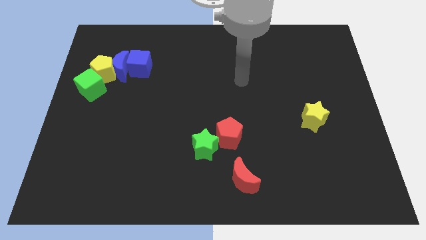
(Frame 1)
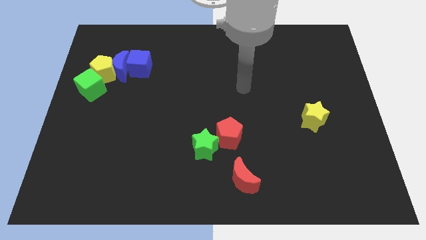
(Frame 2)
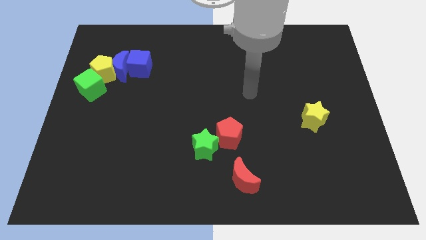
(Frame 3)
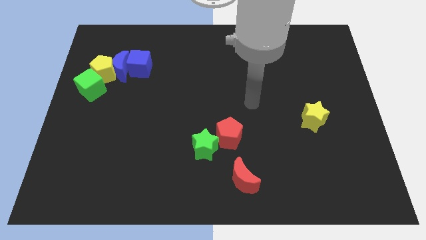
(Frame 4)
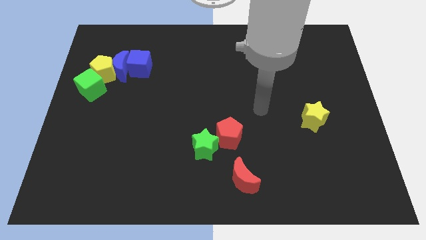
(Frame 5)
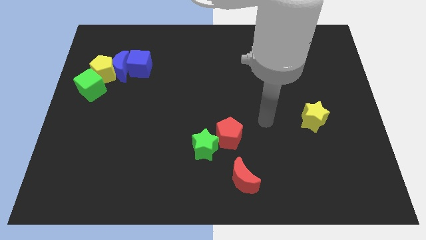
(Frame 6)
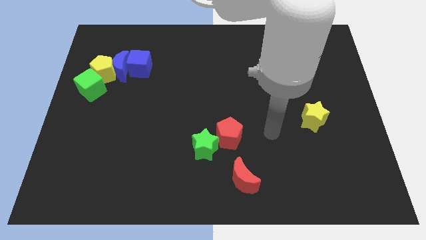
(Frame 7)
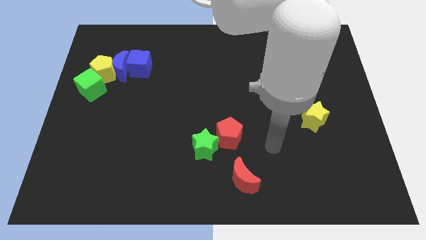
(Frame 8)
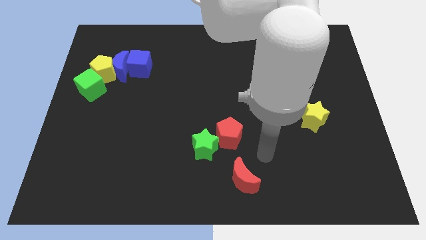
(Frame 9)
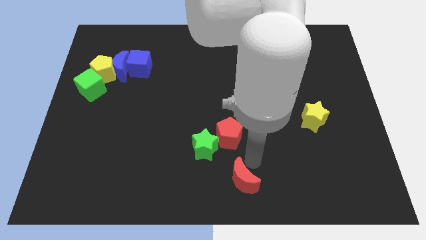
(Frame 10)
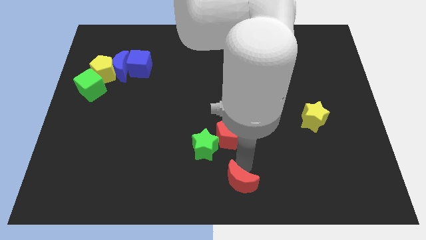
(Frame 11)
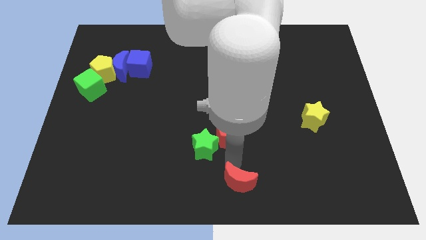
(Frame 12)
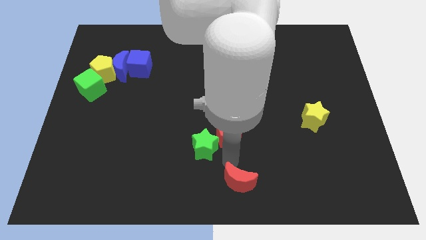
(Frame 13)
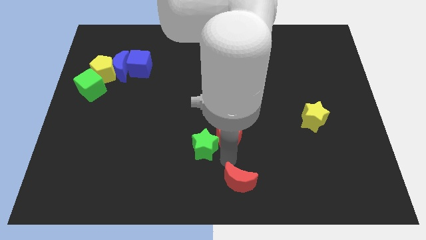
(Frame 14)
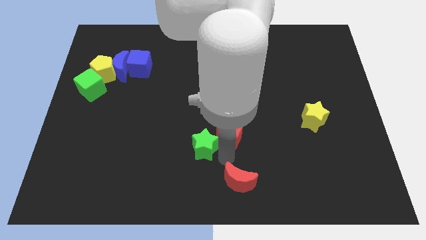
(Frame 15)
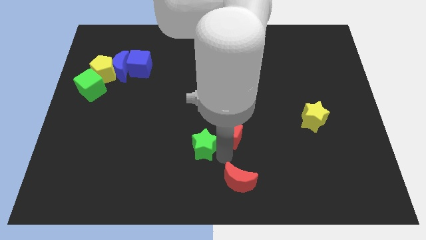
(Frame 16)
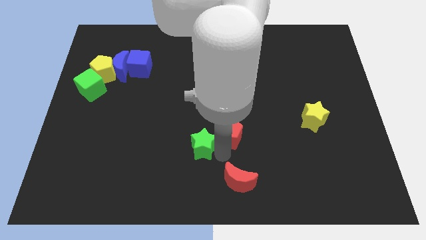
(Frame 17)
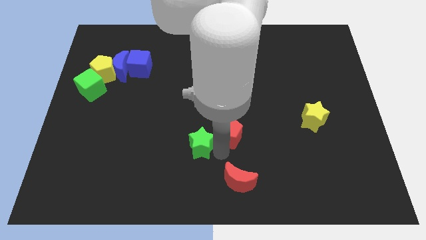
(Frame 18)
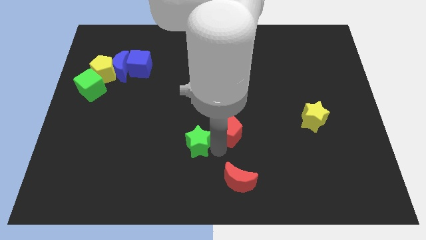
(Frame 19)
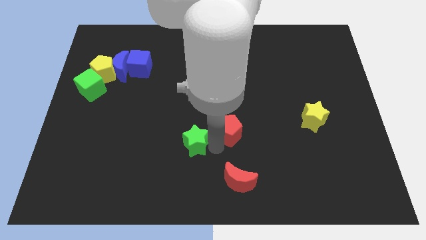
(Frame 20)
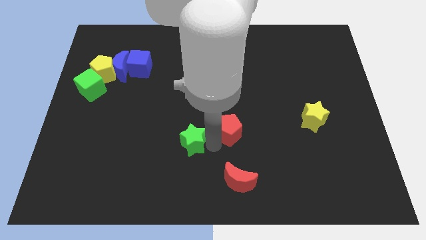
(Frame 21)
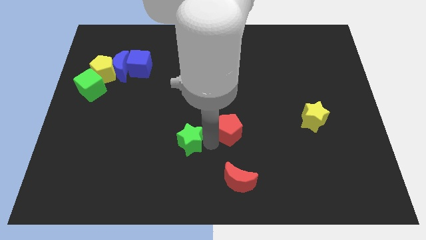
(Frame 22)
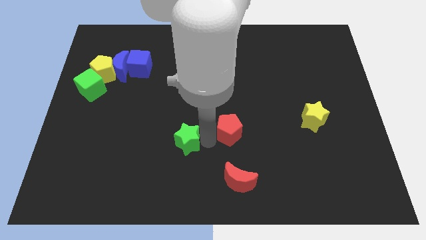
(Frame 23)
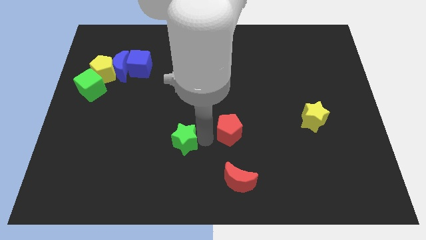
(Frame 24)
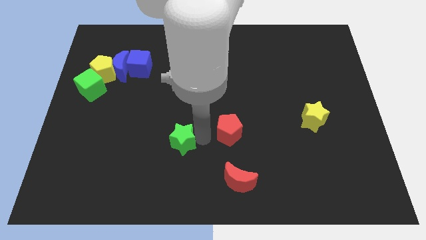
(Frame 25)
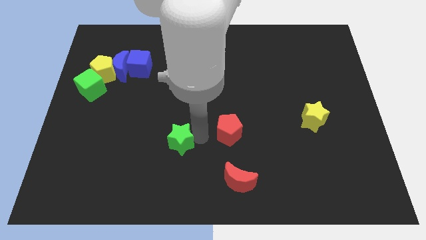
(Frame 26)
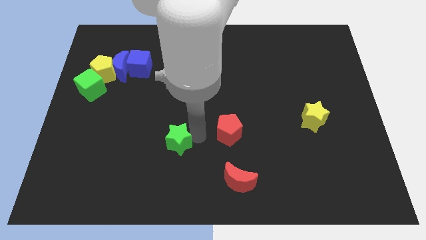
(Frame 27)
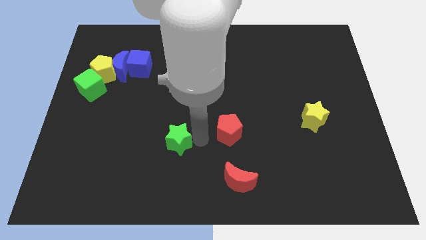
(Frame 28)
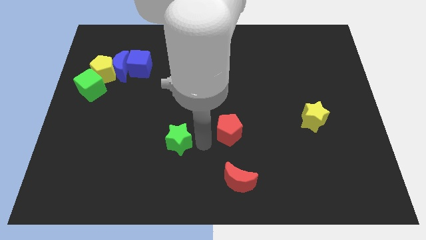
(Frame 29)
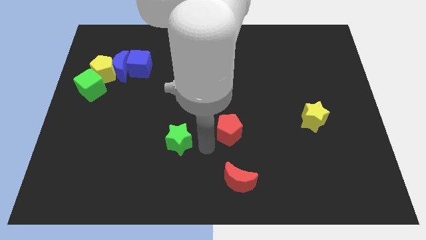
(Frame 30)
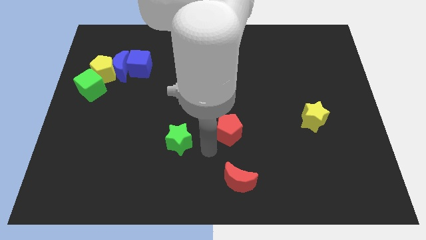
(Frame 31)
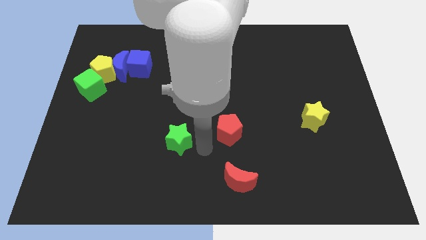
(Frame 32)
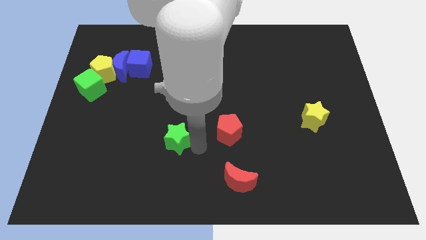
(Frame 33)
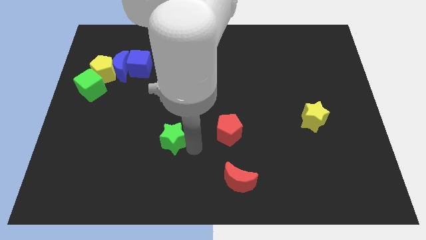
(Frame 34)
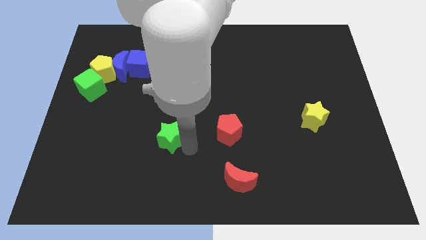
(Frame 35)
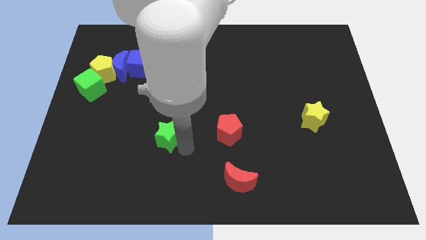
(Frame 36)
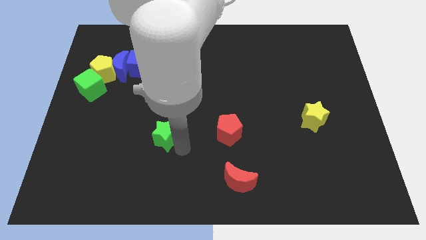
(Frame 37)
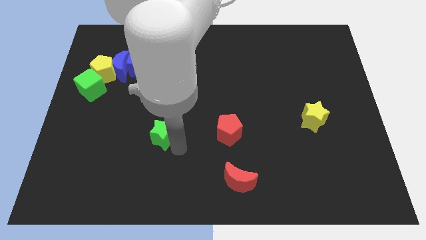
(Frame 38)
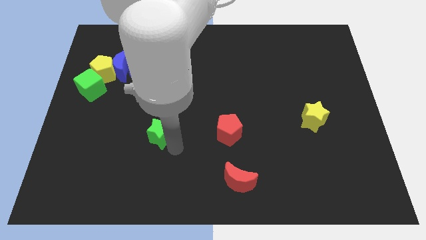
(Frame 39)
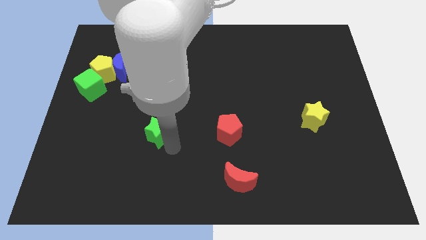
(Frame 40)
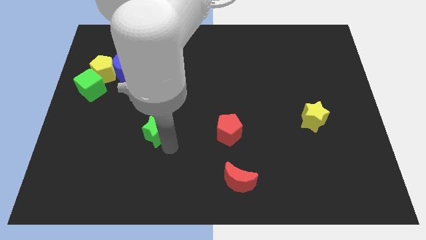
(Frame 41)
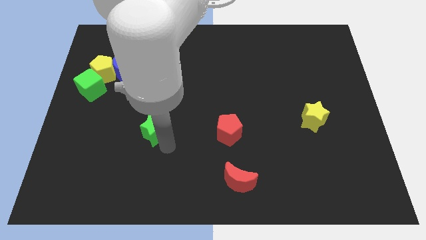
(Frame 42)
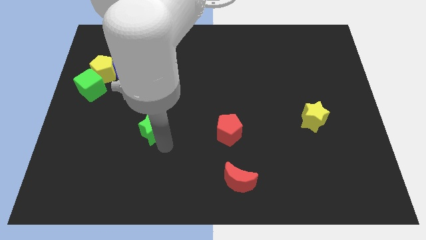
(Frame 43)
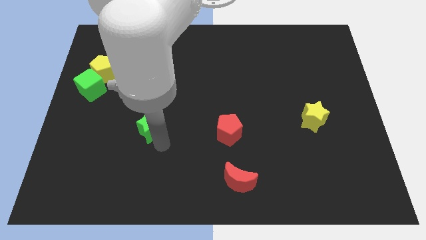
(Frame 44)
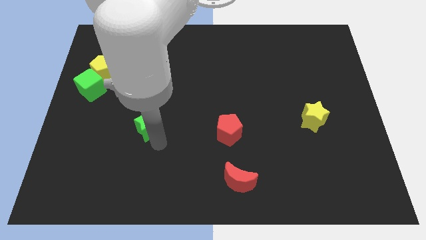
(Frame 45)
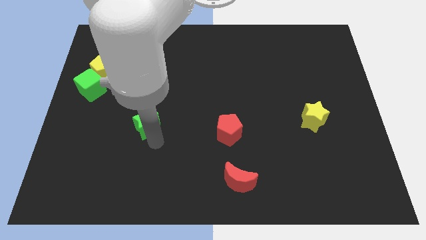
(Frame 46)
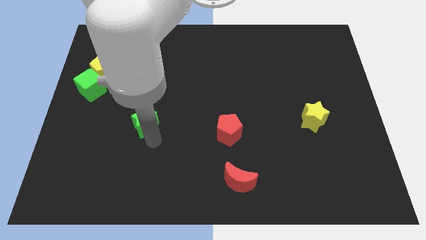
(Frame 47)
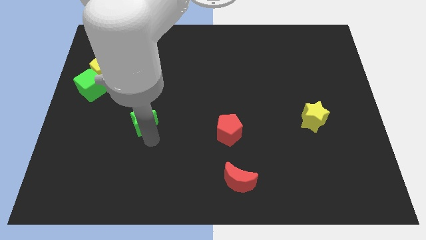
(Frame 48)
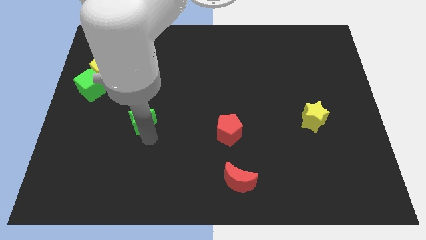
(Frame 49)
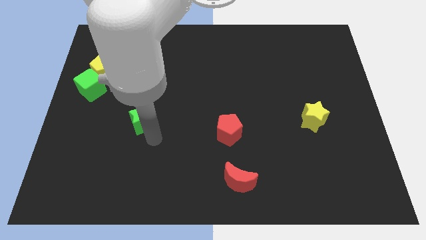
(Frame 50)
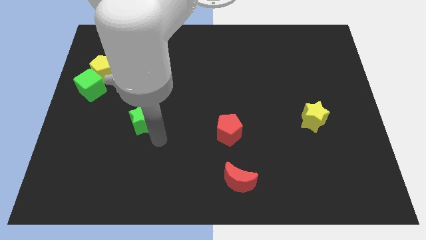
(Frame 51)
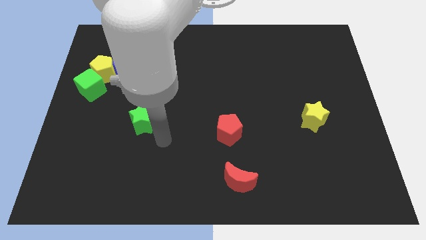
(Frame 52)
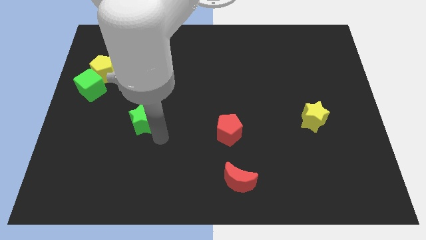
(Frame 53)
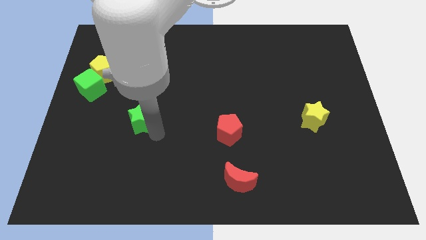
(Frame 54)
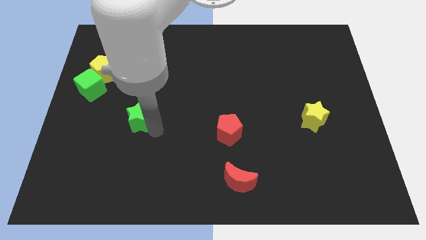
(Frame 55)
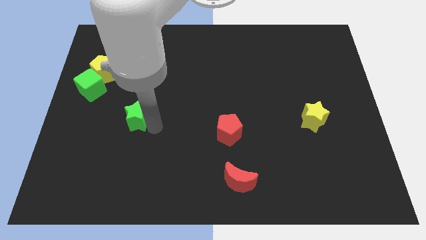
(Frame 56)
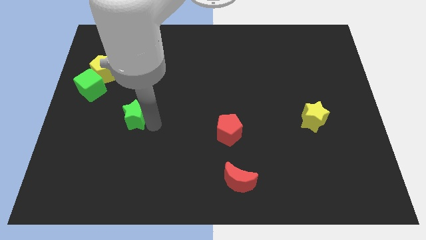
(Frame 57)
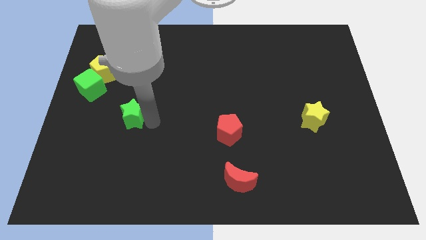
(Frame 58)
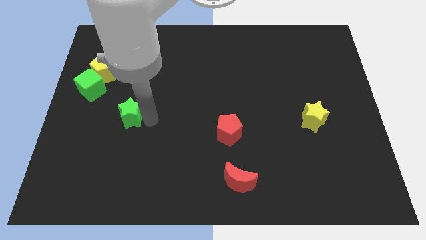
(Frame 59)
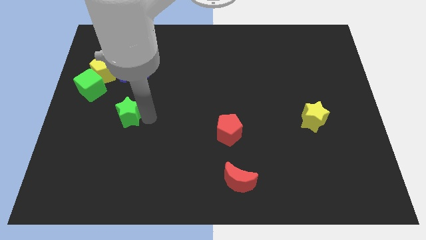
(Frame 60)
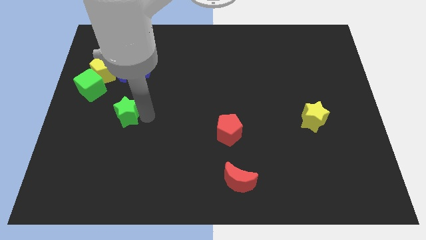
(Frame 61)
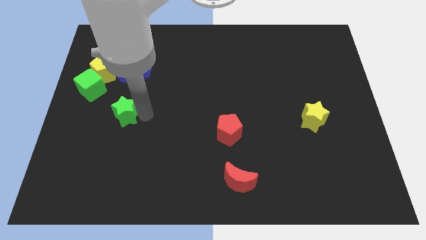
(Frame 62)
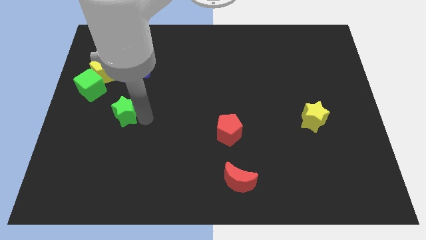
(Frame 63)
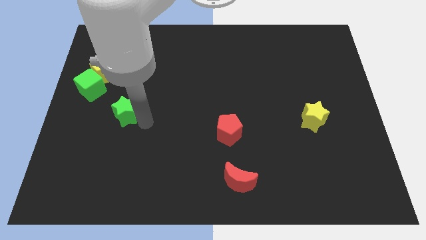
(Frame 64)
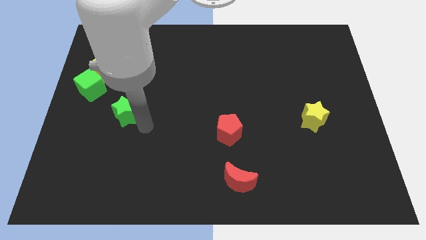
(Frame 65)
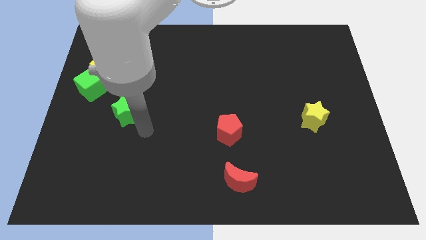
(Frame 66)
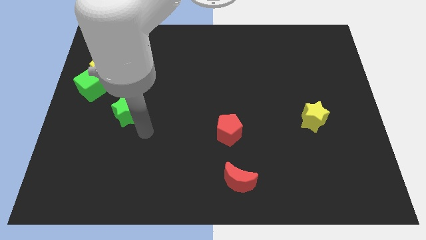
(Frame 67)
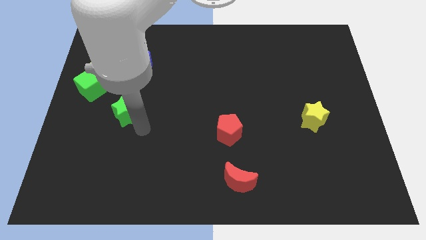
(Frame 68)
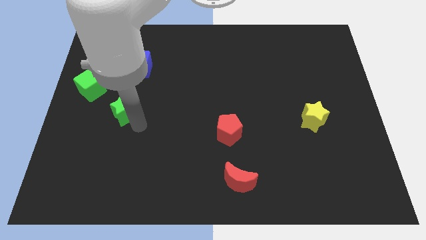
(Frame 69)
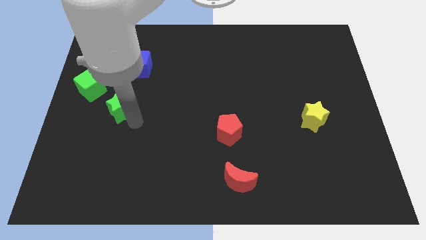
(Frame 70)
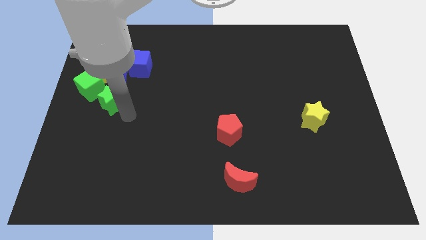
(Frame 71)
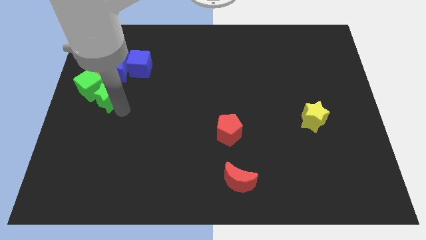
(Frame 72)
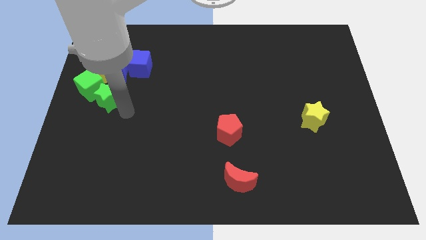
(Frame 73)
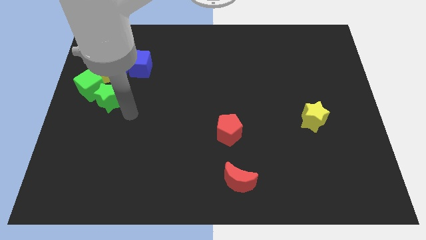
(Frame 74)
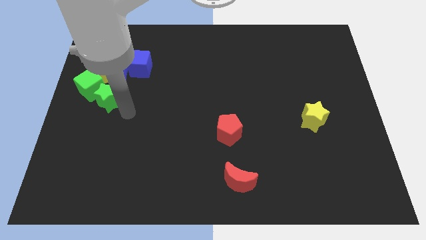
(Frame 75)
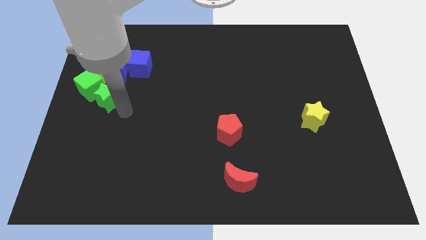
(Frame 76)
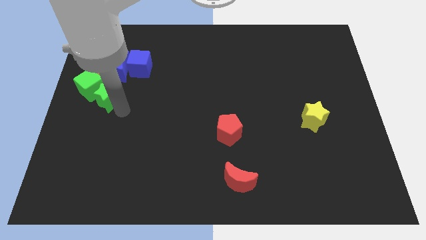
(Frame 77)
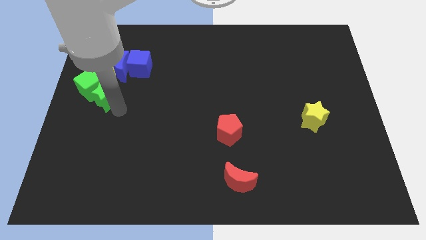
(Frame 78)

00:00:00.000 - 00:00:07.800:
put the green star towards the green cube
